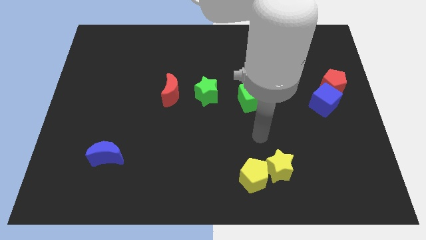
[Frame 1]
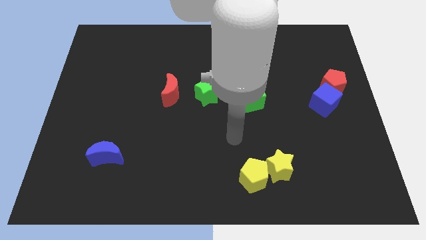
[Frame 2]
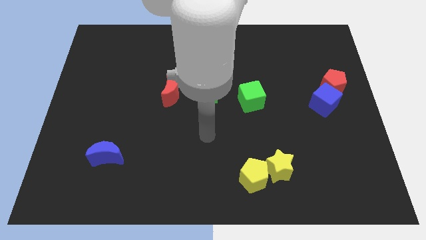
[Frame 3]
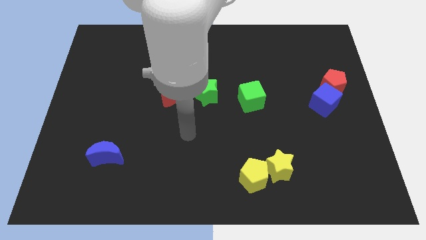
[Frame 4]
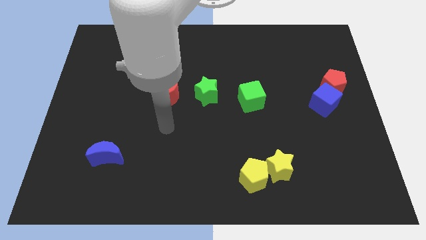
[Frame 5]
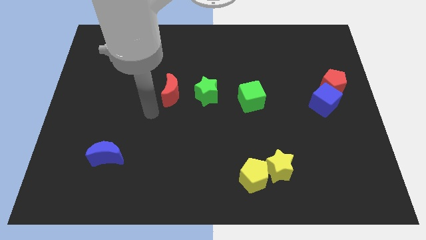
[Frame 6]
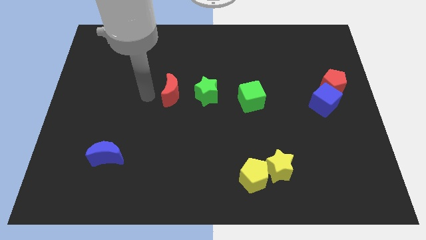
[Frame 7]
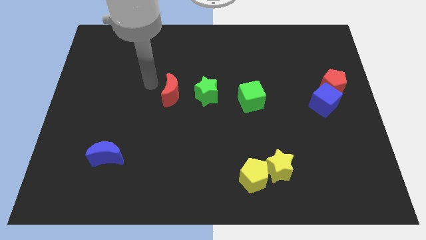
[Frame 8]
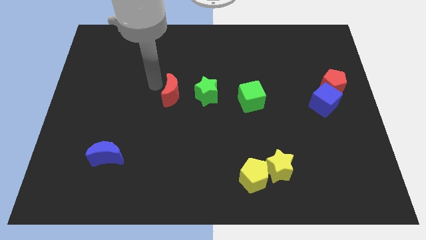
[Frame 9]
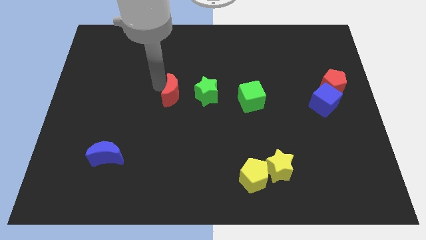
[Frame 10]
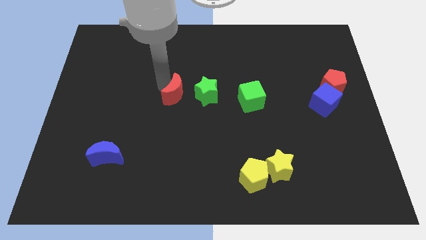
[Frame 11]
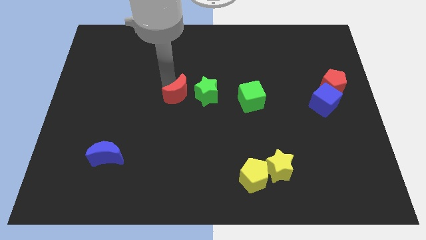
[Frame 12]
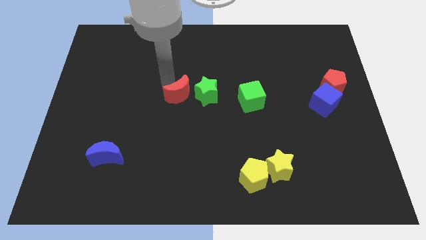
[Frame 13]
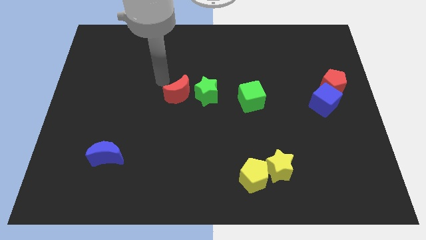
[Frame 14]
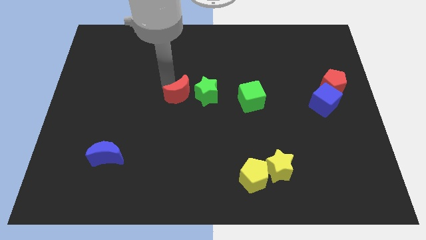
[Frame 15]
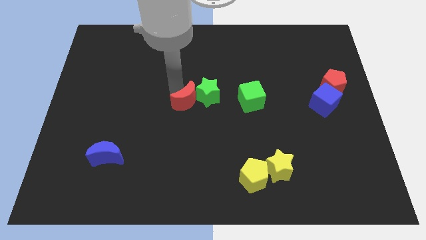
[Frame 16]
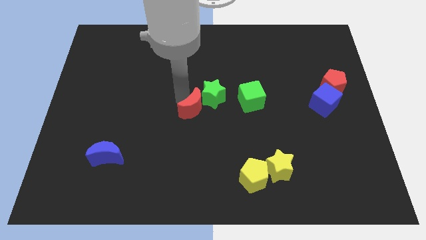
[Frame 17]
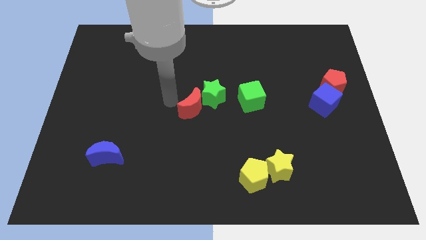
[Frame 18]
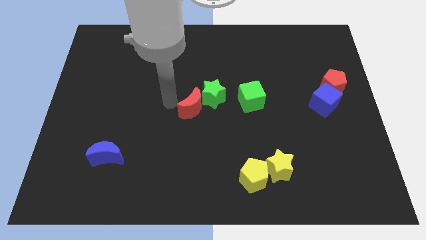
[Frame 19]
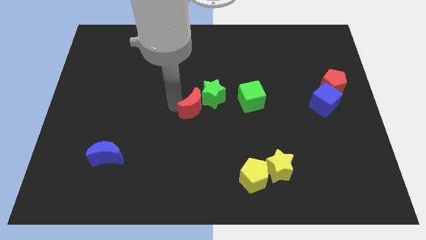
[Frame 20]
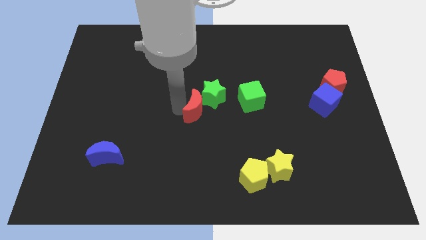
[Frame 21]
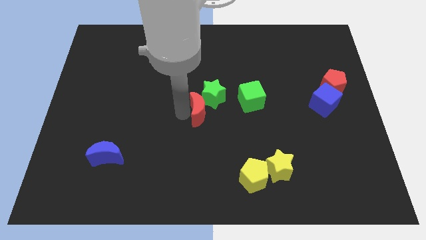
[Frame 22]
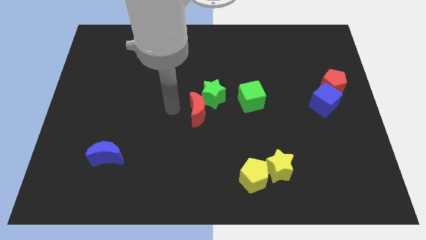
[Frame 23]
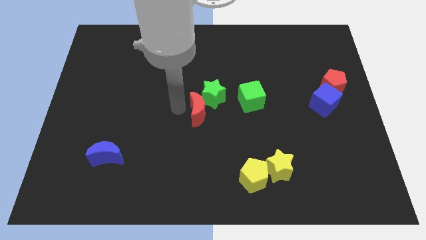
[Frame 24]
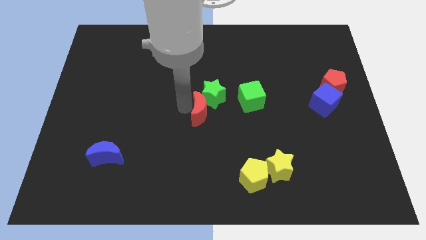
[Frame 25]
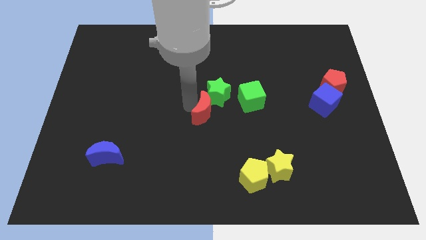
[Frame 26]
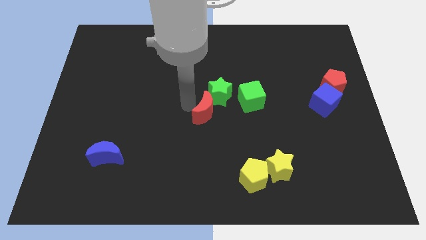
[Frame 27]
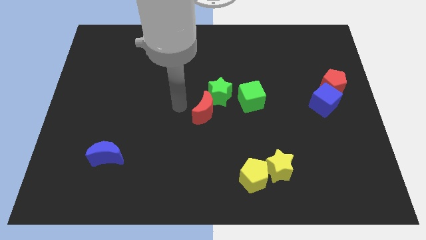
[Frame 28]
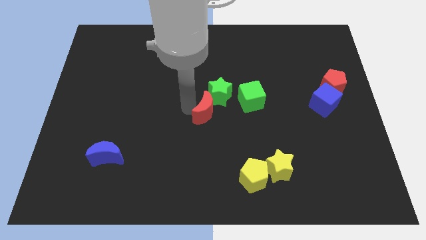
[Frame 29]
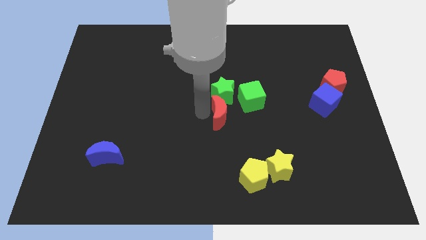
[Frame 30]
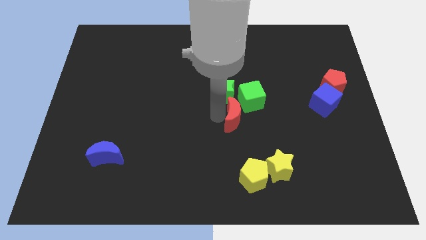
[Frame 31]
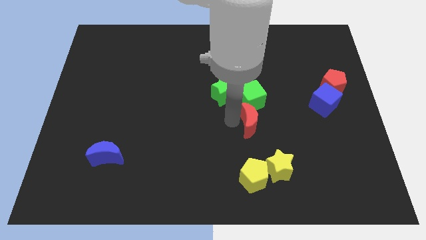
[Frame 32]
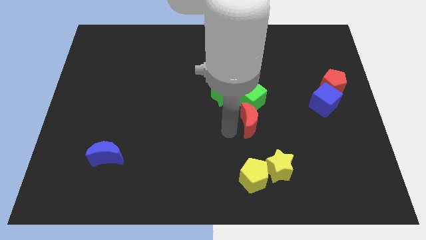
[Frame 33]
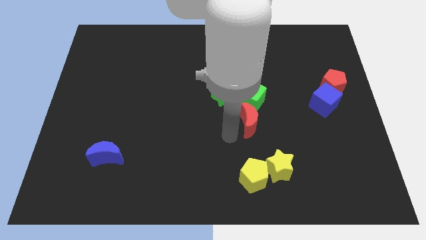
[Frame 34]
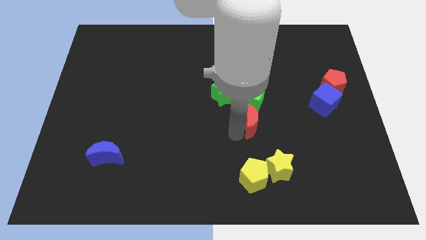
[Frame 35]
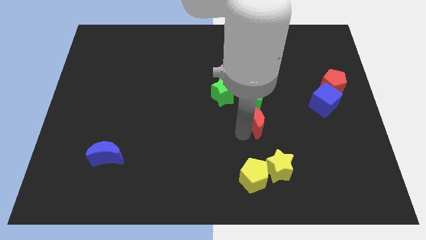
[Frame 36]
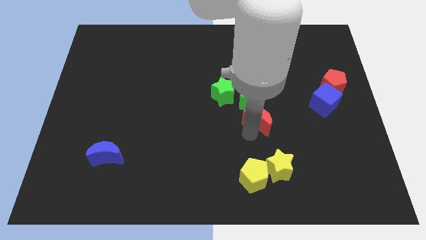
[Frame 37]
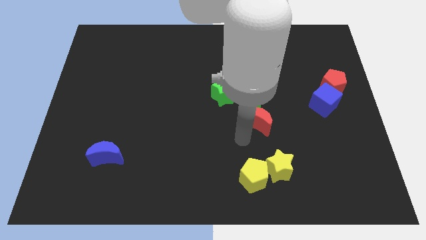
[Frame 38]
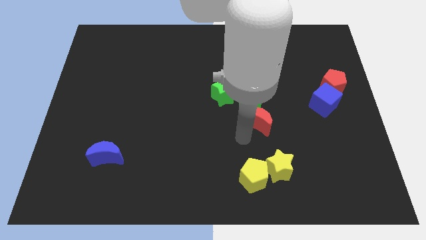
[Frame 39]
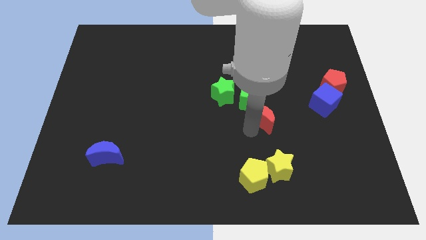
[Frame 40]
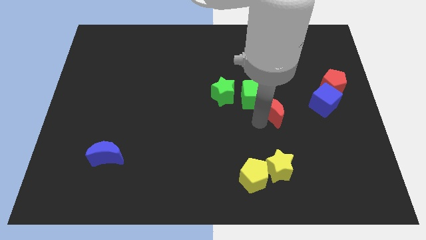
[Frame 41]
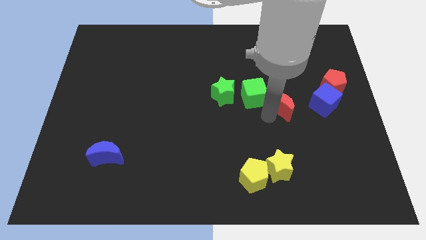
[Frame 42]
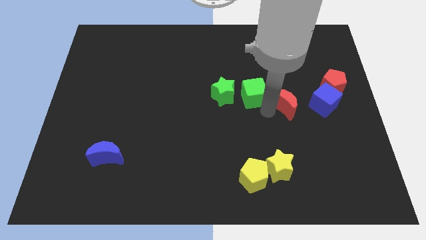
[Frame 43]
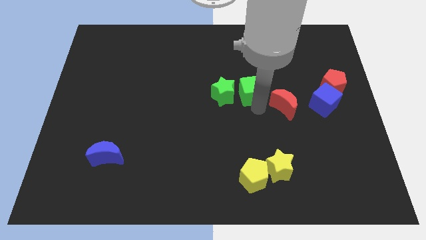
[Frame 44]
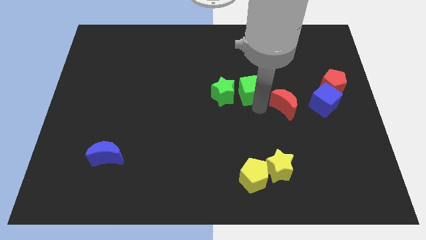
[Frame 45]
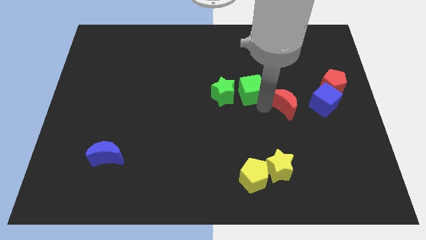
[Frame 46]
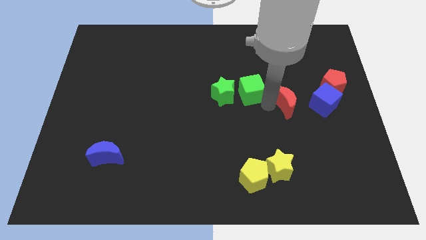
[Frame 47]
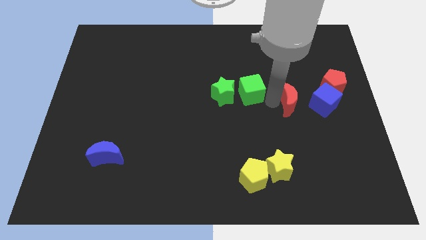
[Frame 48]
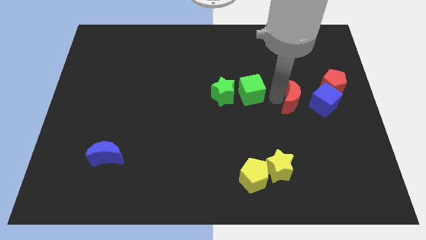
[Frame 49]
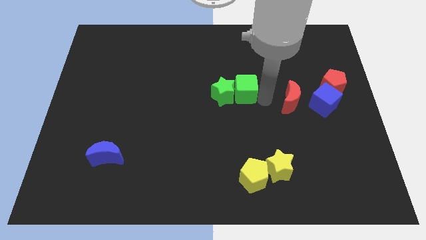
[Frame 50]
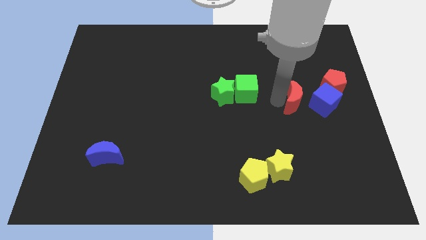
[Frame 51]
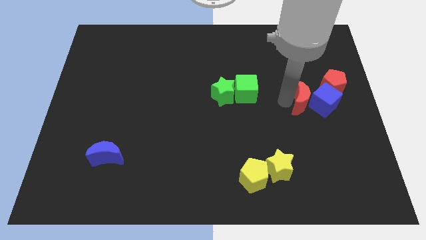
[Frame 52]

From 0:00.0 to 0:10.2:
move the red moon to the blue cube

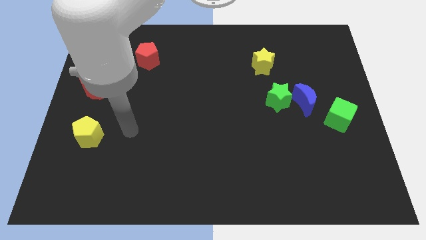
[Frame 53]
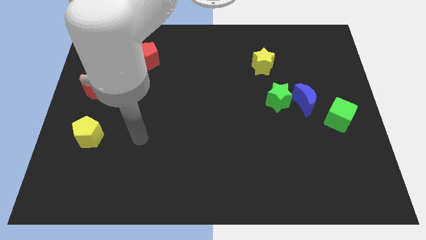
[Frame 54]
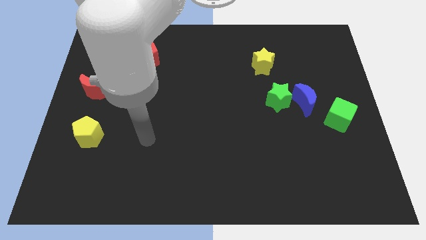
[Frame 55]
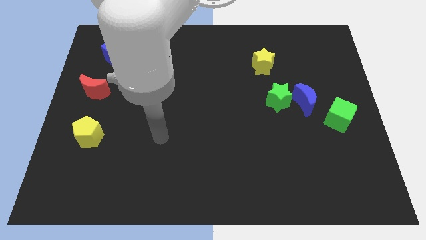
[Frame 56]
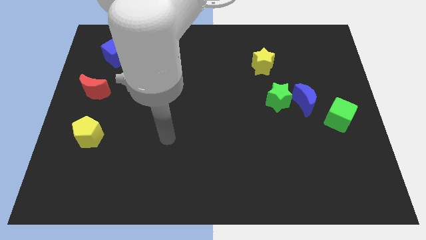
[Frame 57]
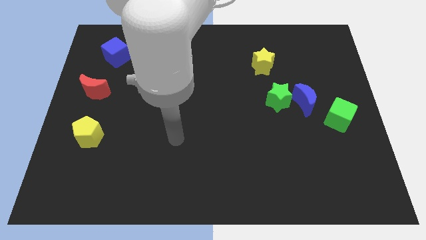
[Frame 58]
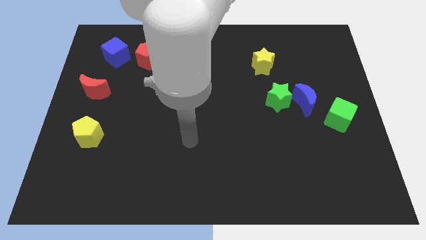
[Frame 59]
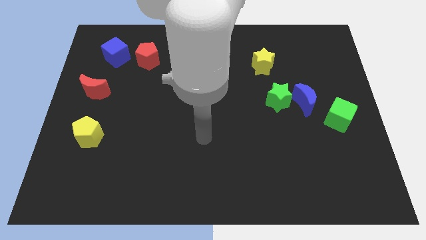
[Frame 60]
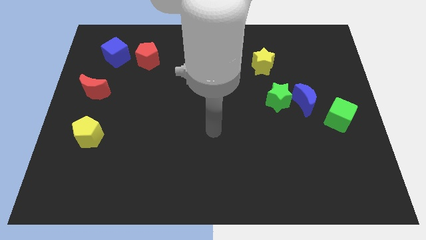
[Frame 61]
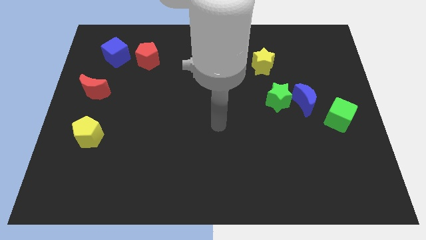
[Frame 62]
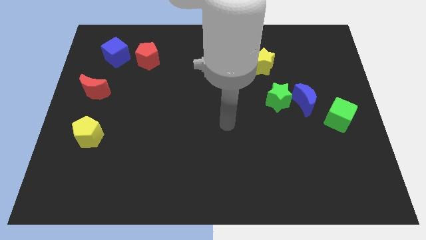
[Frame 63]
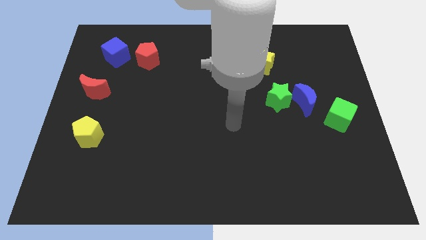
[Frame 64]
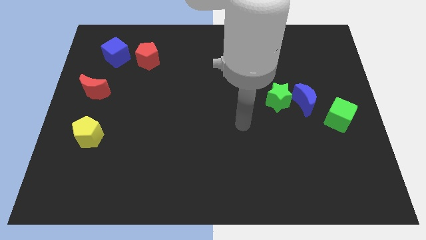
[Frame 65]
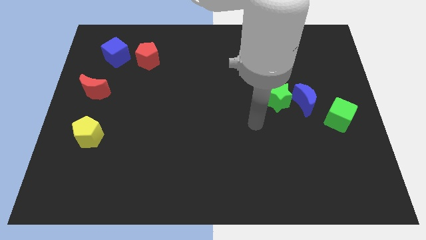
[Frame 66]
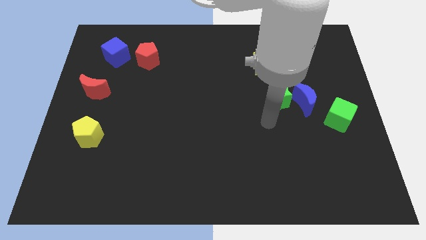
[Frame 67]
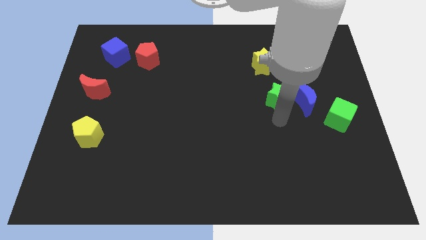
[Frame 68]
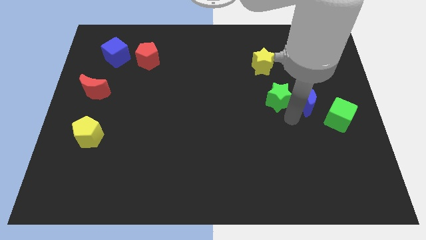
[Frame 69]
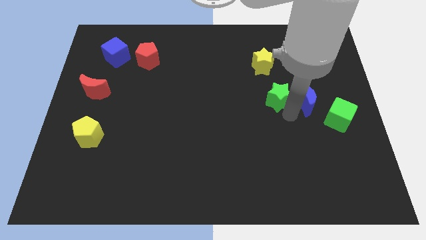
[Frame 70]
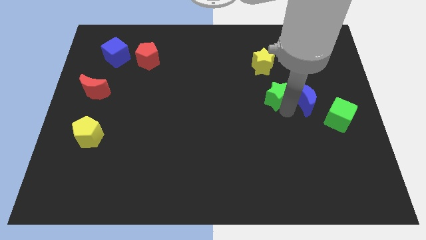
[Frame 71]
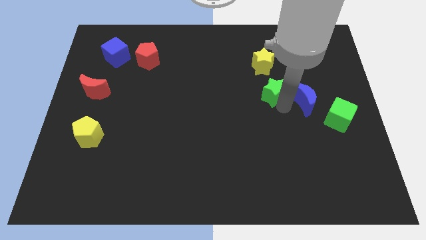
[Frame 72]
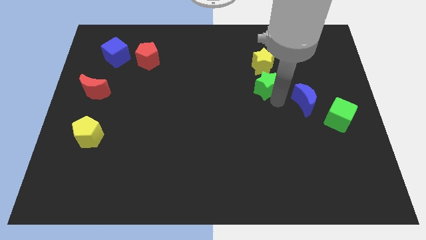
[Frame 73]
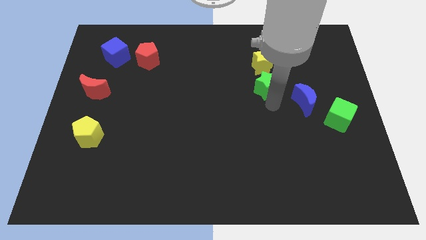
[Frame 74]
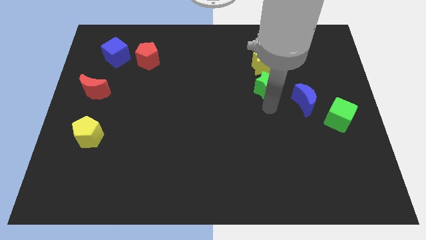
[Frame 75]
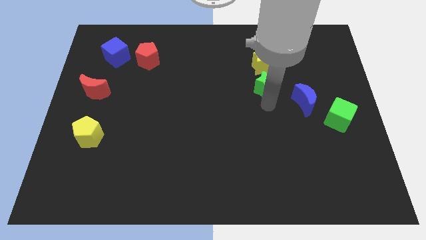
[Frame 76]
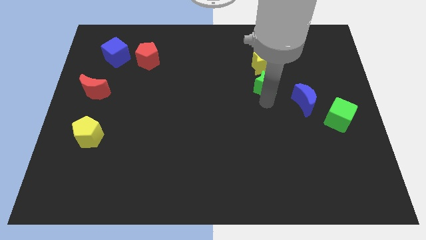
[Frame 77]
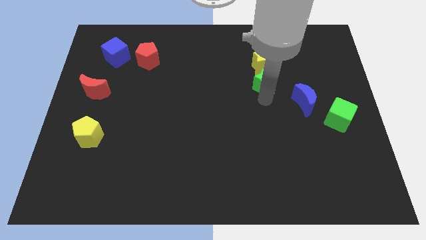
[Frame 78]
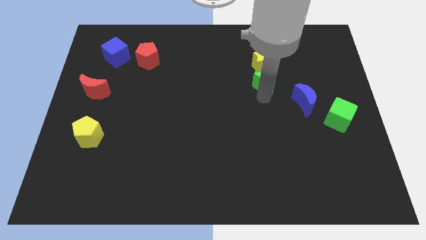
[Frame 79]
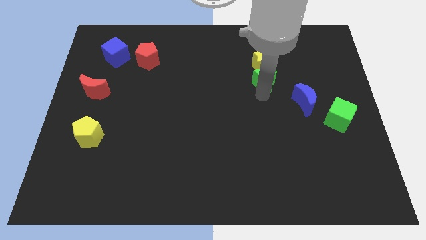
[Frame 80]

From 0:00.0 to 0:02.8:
move the green star to the yellow star

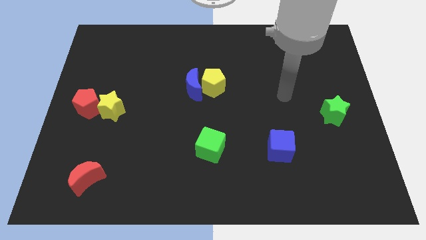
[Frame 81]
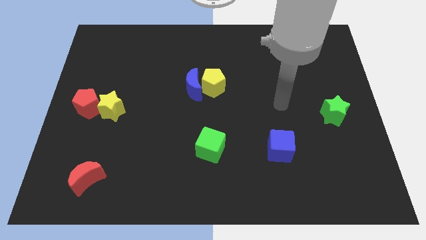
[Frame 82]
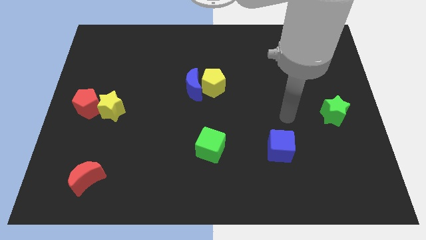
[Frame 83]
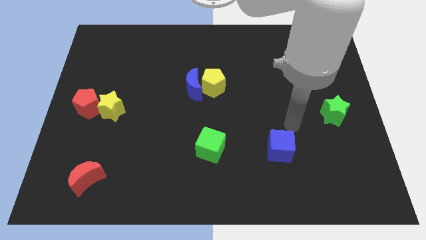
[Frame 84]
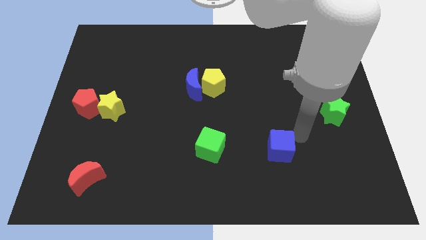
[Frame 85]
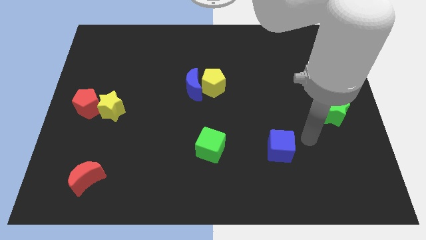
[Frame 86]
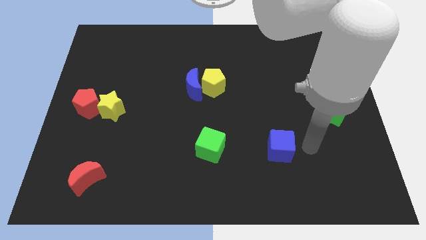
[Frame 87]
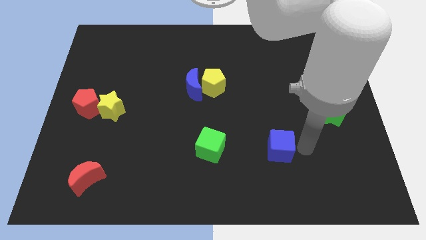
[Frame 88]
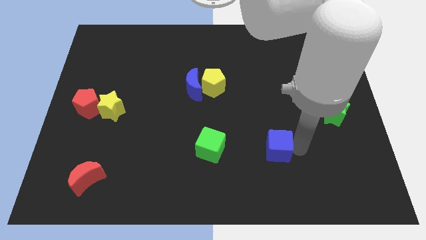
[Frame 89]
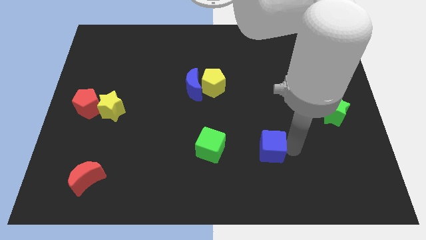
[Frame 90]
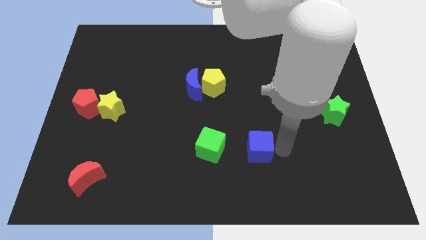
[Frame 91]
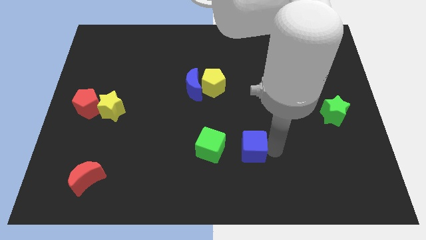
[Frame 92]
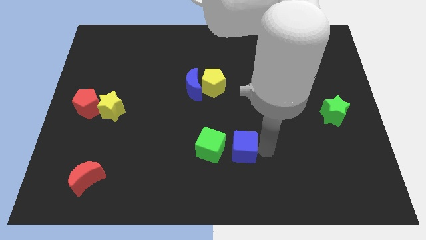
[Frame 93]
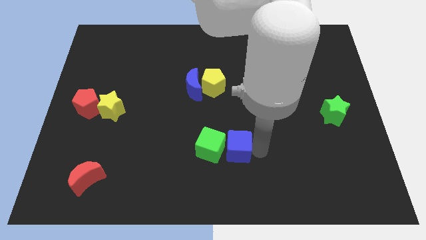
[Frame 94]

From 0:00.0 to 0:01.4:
move the blue cube to the green cube
